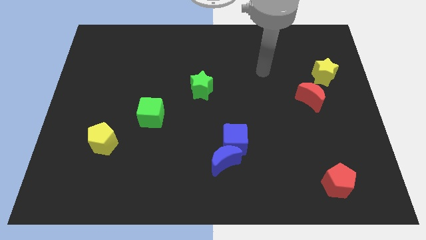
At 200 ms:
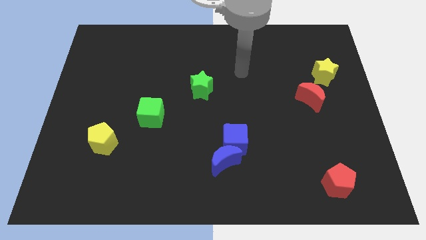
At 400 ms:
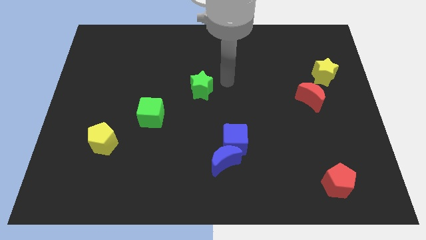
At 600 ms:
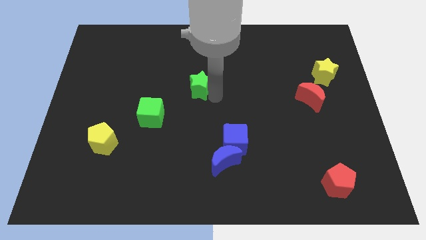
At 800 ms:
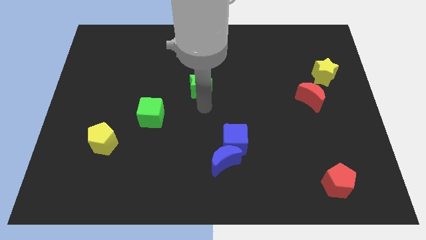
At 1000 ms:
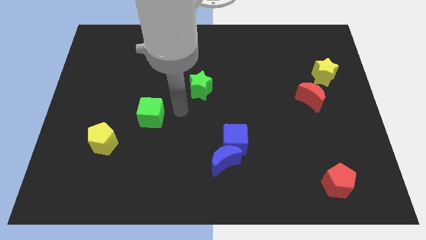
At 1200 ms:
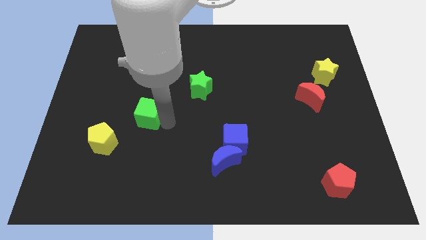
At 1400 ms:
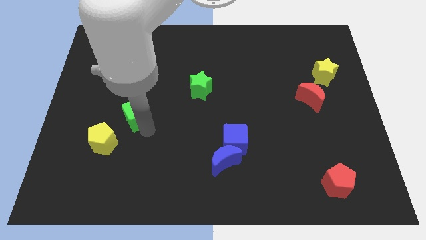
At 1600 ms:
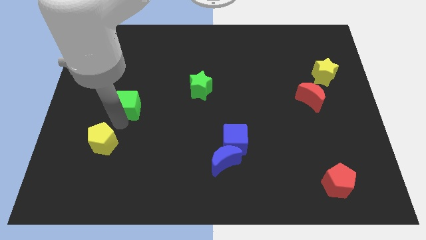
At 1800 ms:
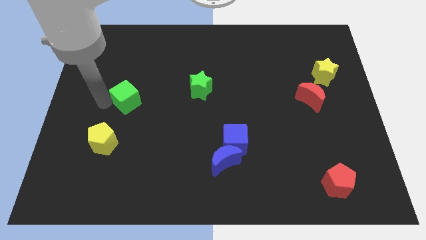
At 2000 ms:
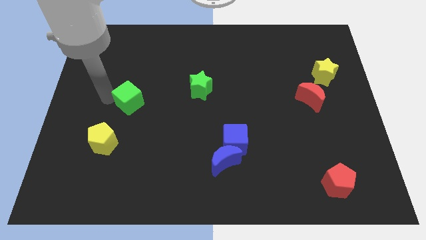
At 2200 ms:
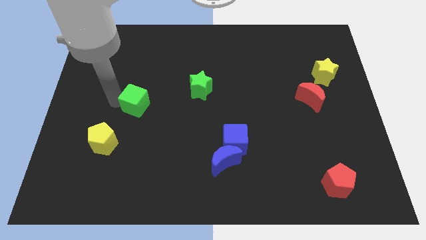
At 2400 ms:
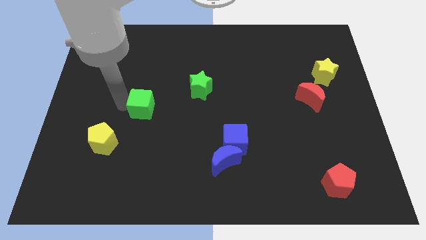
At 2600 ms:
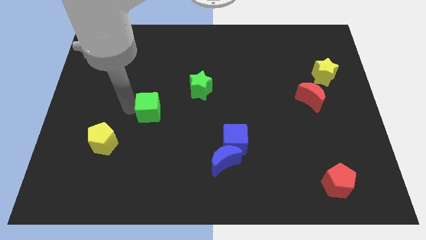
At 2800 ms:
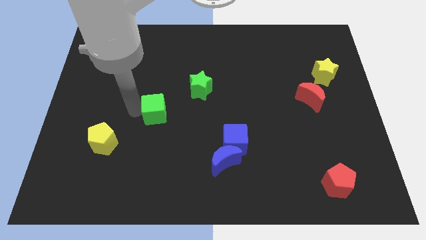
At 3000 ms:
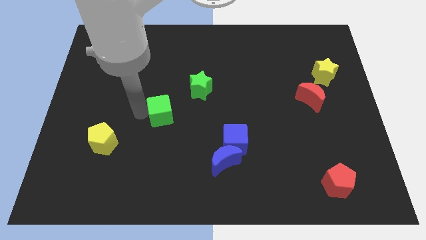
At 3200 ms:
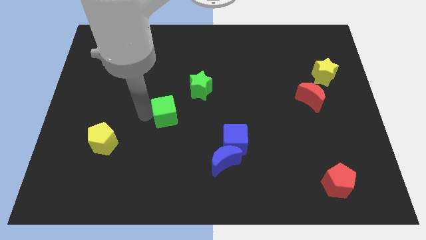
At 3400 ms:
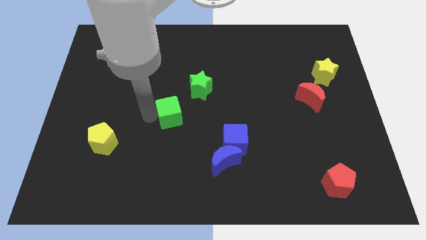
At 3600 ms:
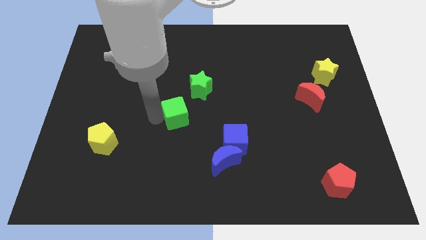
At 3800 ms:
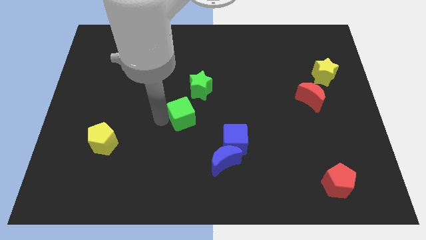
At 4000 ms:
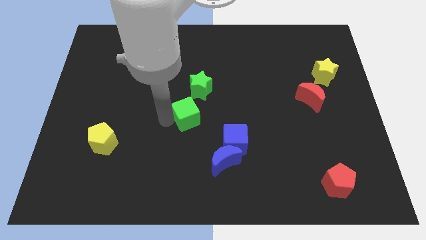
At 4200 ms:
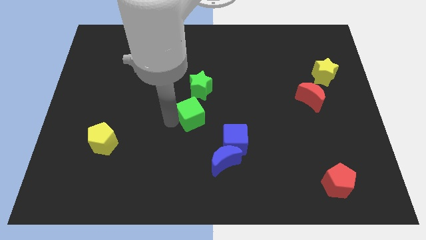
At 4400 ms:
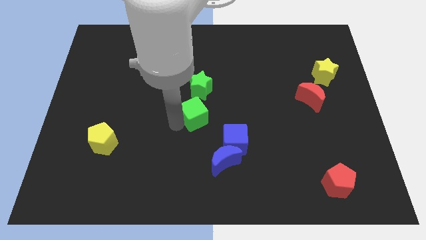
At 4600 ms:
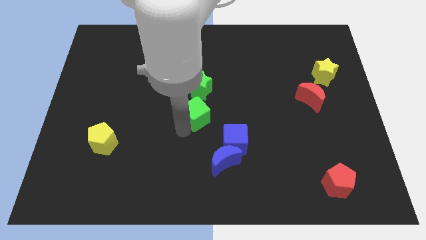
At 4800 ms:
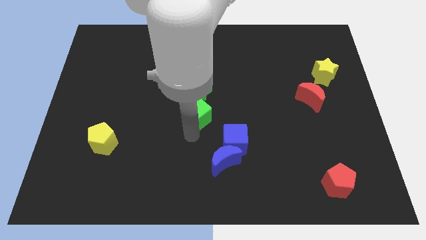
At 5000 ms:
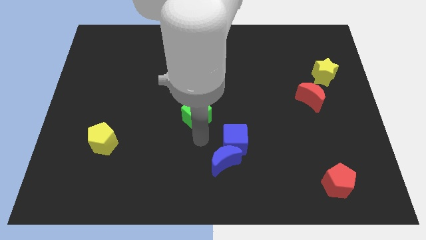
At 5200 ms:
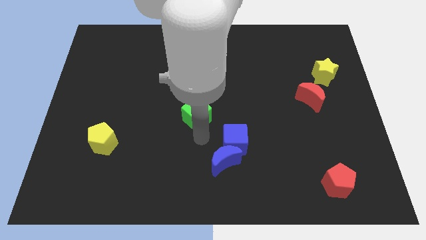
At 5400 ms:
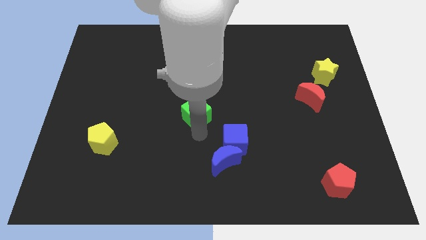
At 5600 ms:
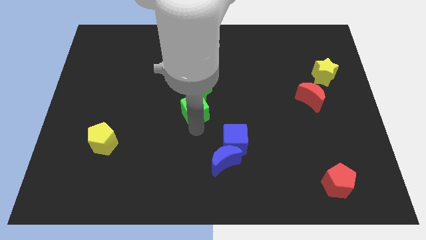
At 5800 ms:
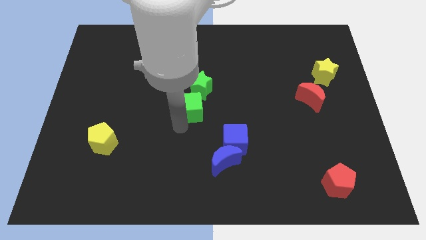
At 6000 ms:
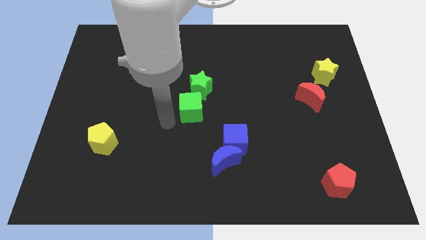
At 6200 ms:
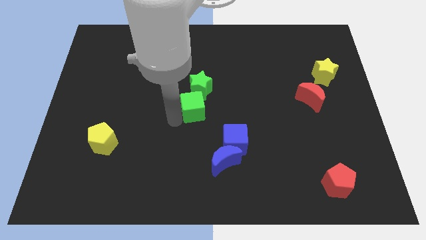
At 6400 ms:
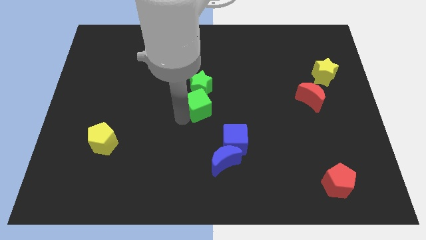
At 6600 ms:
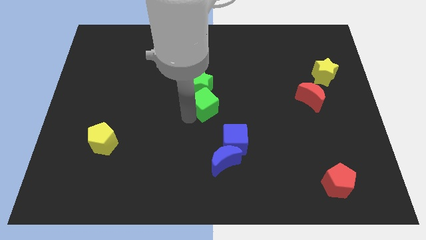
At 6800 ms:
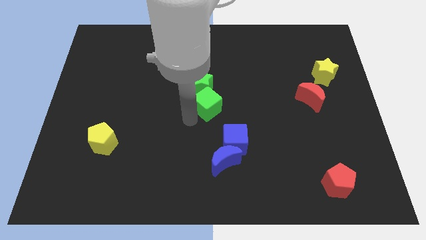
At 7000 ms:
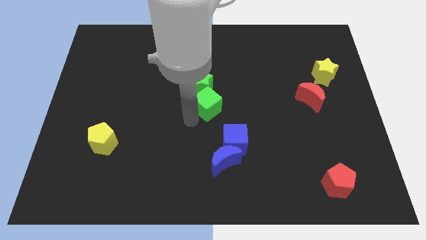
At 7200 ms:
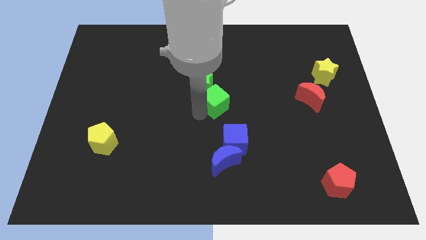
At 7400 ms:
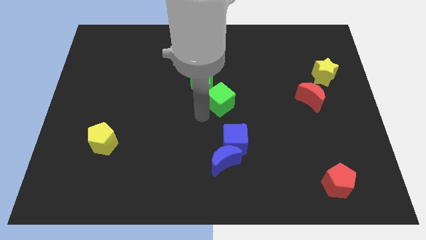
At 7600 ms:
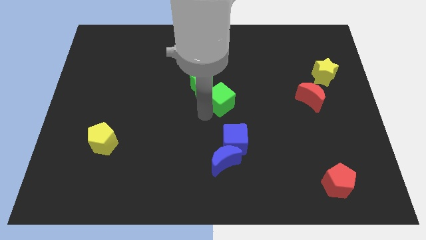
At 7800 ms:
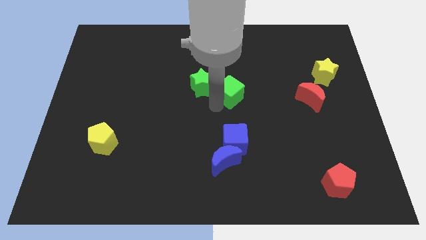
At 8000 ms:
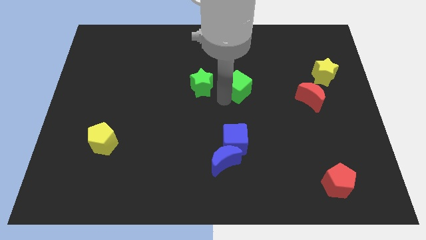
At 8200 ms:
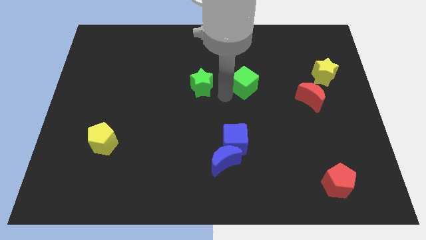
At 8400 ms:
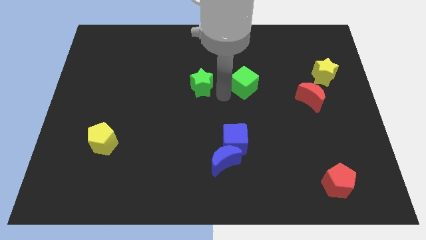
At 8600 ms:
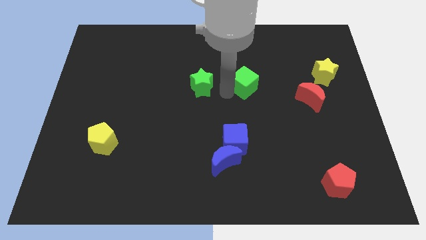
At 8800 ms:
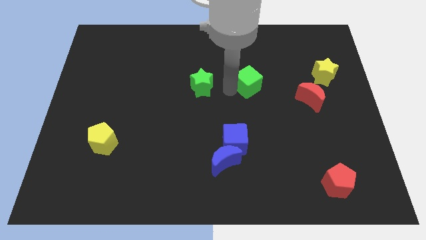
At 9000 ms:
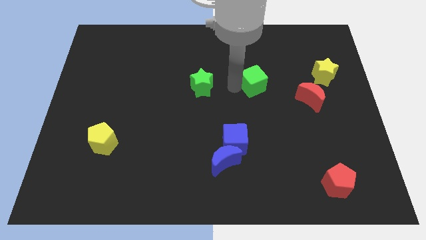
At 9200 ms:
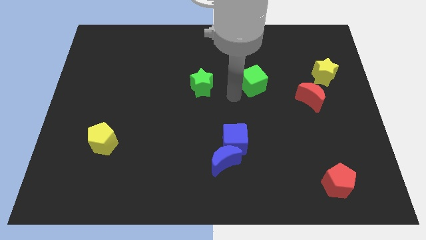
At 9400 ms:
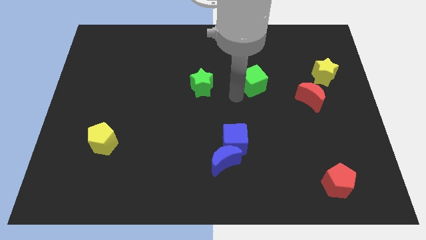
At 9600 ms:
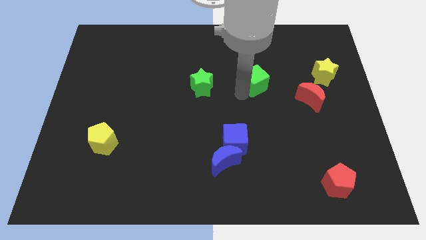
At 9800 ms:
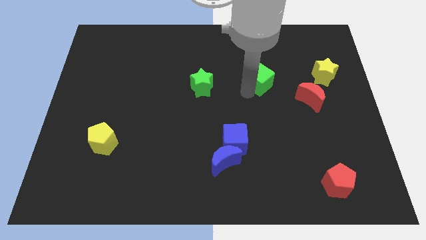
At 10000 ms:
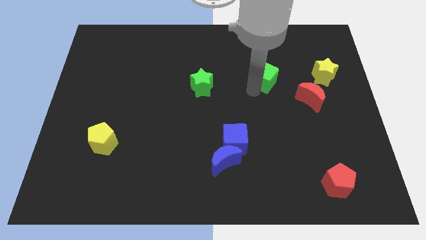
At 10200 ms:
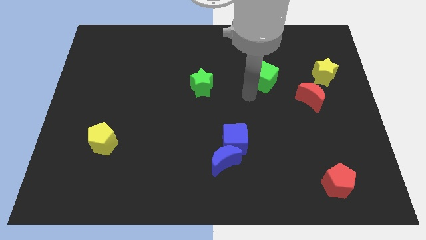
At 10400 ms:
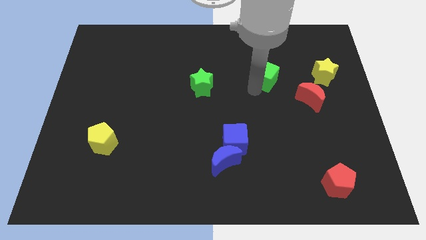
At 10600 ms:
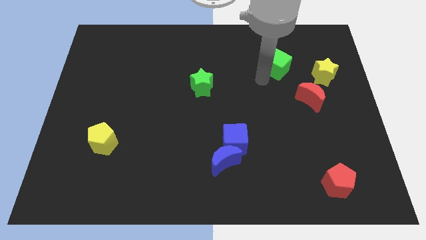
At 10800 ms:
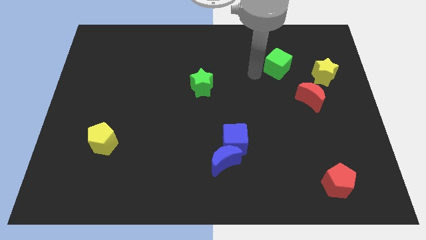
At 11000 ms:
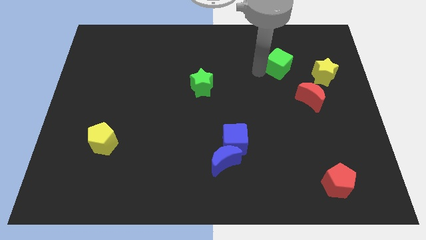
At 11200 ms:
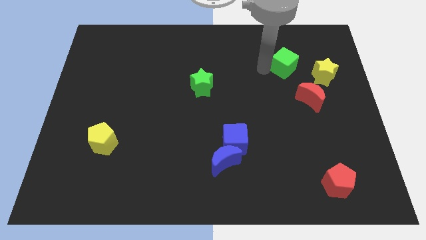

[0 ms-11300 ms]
slide the green cube diagonally up and to the left of the yellow star

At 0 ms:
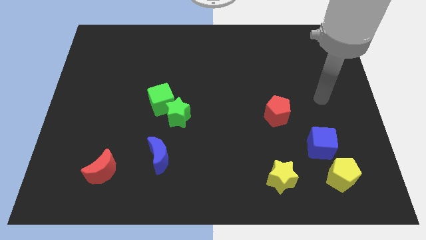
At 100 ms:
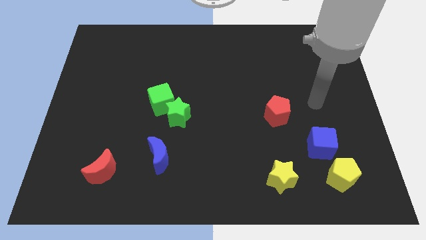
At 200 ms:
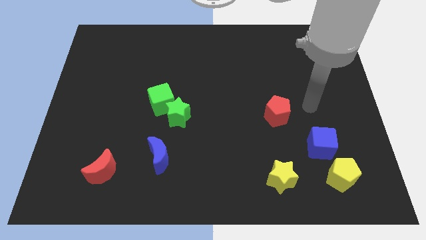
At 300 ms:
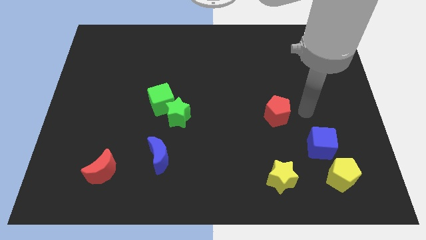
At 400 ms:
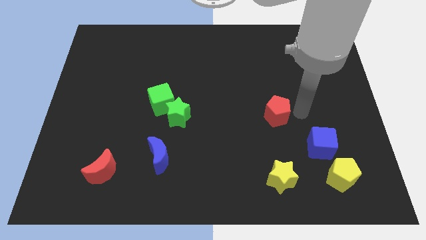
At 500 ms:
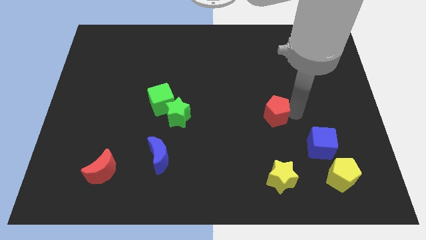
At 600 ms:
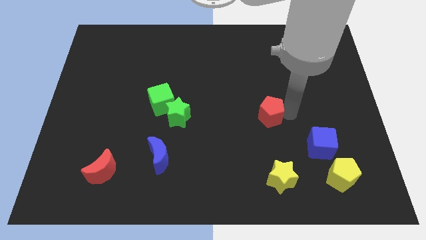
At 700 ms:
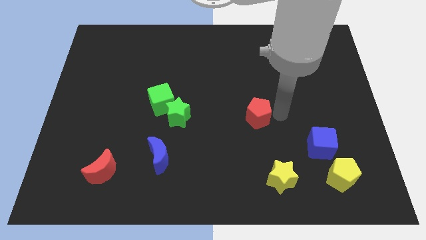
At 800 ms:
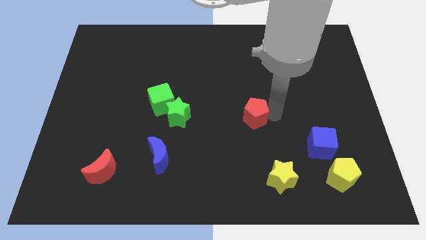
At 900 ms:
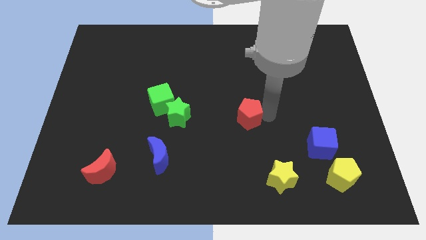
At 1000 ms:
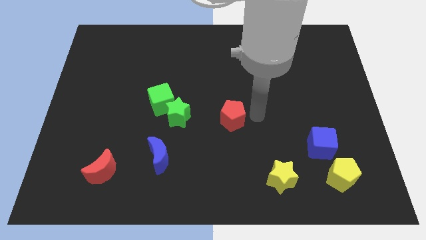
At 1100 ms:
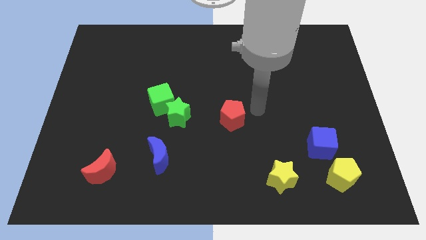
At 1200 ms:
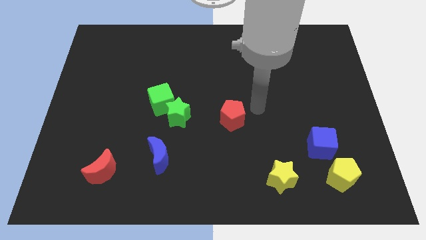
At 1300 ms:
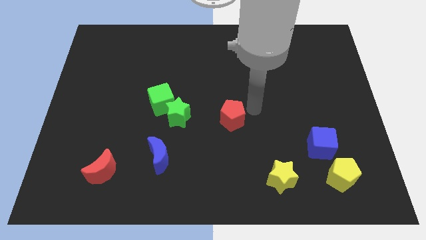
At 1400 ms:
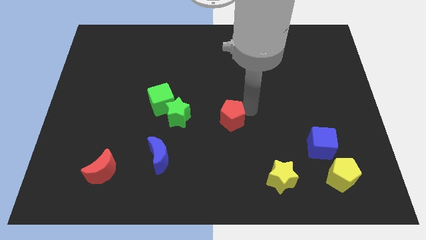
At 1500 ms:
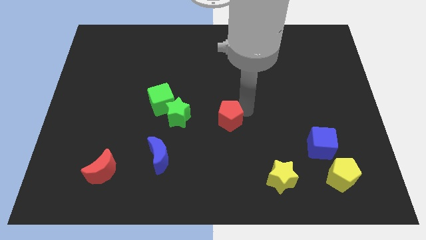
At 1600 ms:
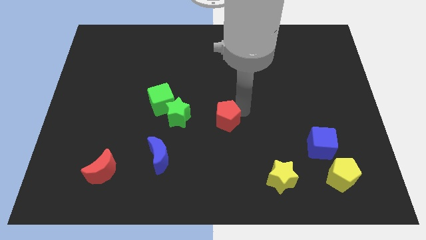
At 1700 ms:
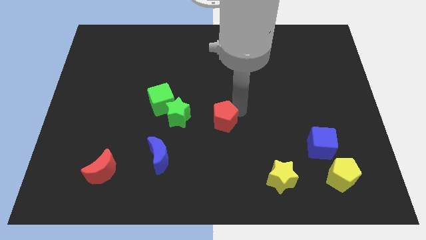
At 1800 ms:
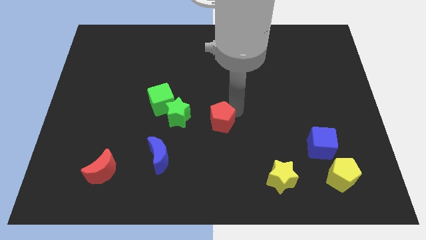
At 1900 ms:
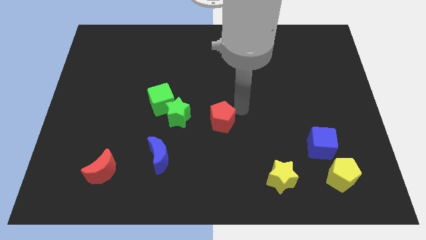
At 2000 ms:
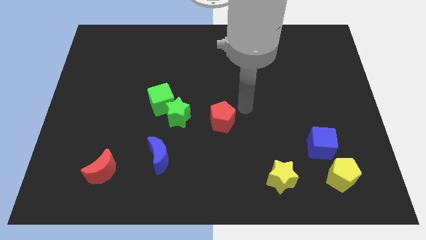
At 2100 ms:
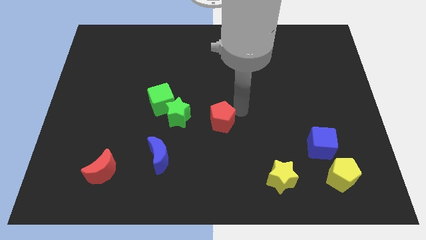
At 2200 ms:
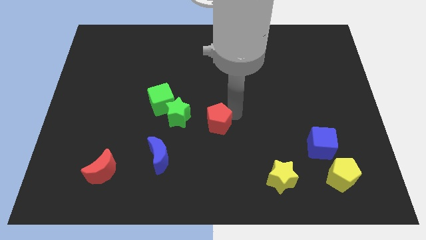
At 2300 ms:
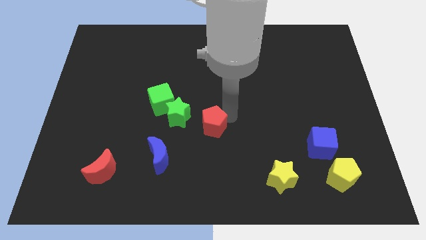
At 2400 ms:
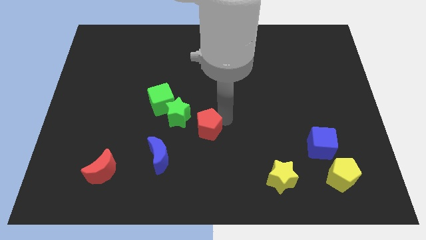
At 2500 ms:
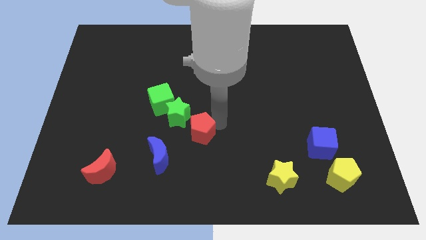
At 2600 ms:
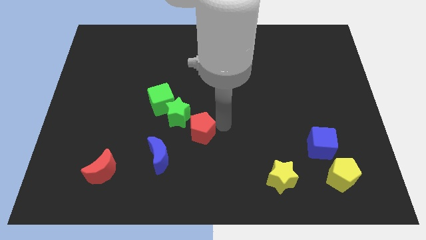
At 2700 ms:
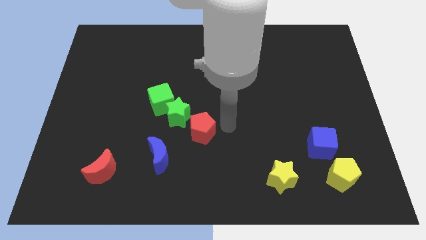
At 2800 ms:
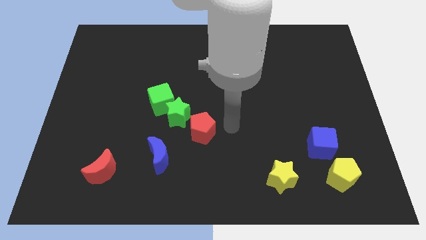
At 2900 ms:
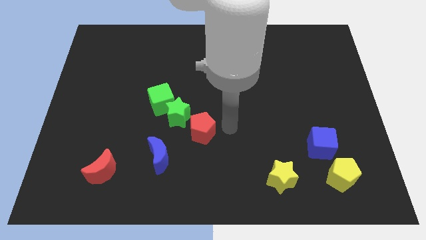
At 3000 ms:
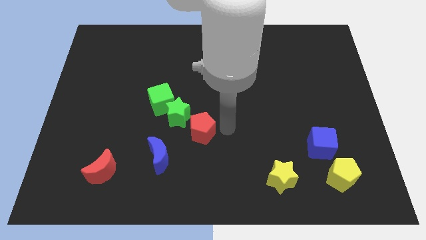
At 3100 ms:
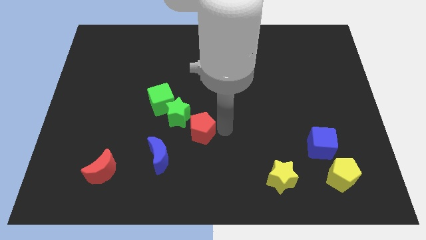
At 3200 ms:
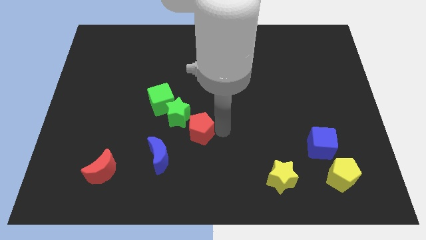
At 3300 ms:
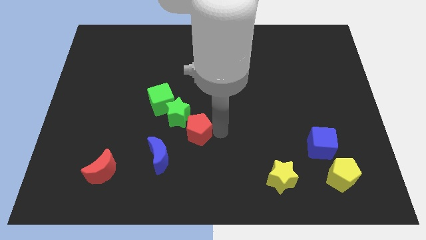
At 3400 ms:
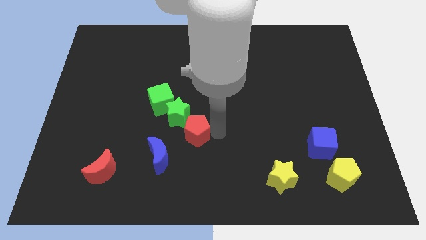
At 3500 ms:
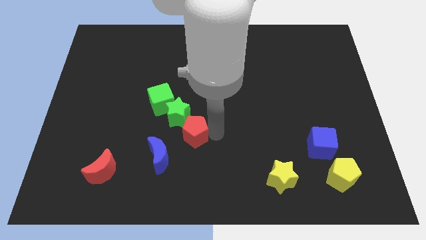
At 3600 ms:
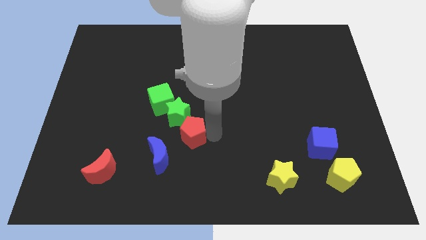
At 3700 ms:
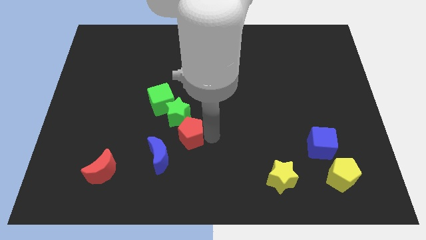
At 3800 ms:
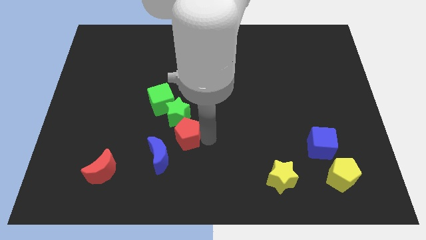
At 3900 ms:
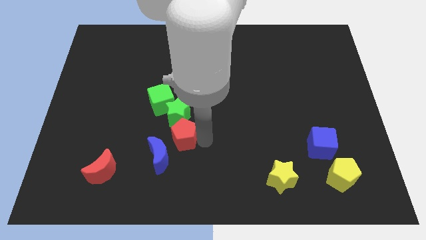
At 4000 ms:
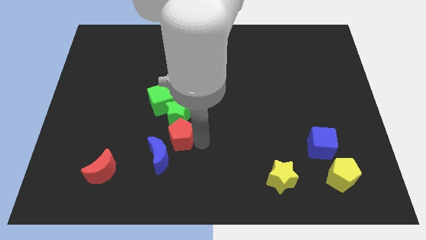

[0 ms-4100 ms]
push the red pentagon to the bottom left of the green star
